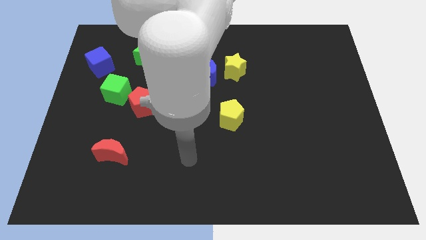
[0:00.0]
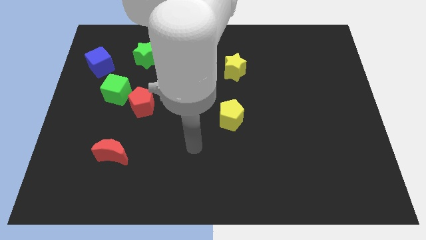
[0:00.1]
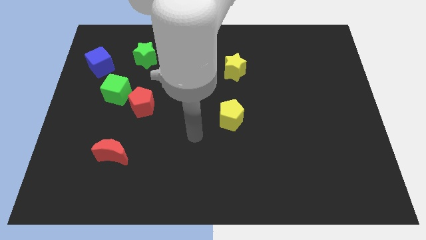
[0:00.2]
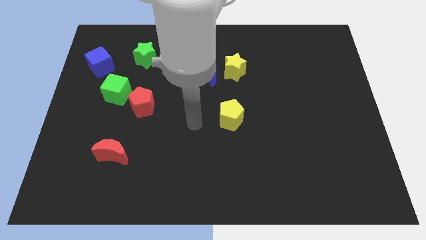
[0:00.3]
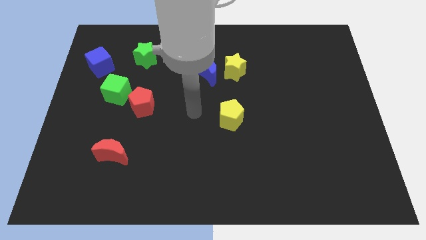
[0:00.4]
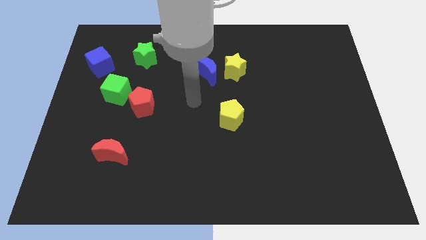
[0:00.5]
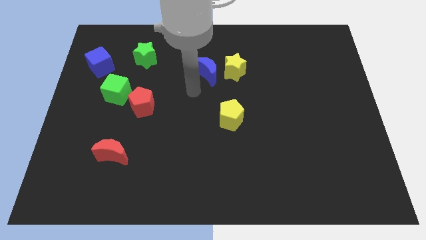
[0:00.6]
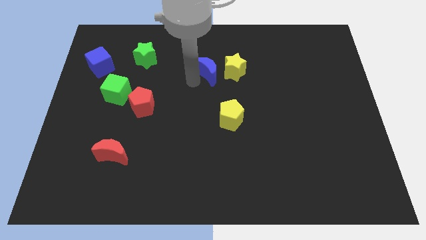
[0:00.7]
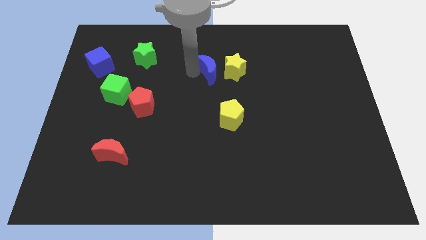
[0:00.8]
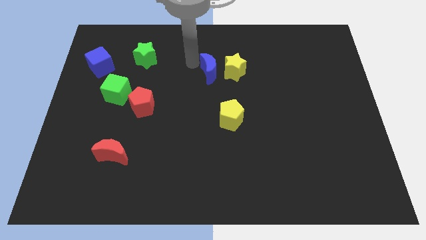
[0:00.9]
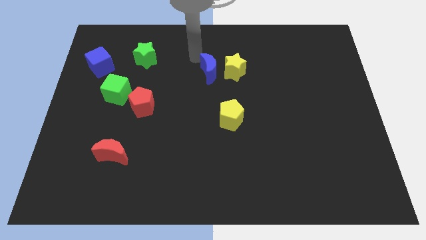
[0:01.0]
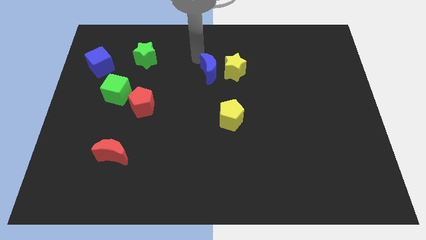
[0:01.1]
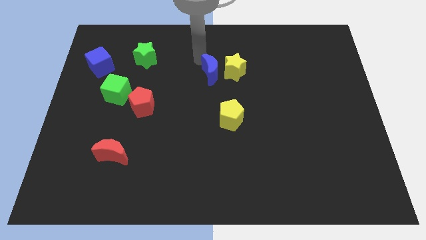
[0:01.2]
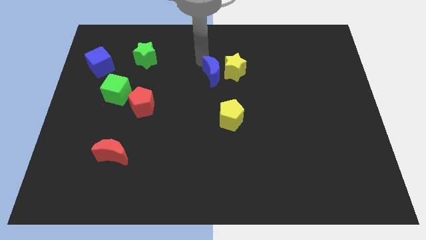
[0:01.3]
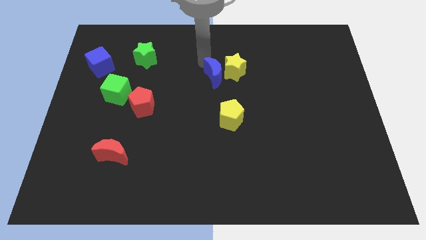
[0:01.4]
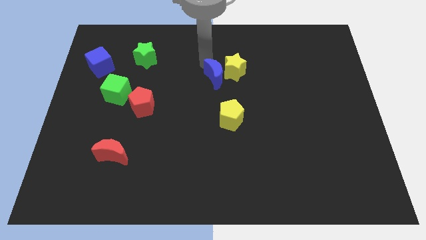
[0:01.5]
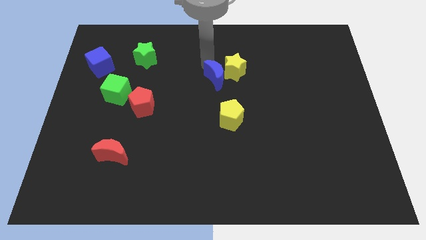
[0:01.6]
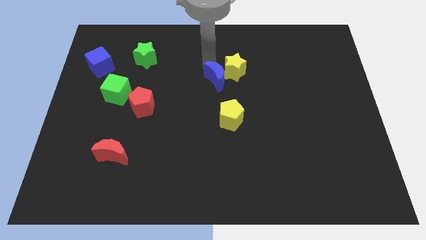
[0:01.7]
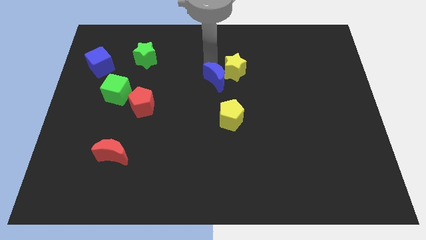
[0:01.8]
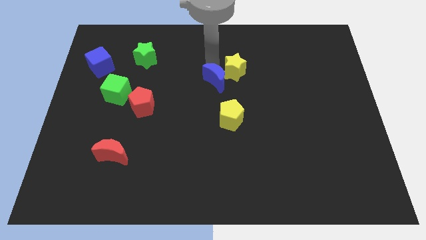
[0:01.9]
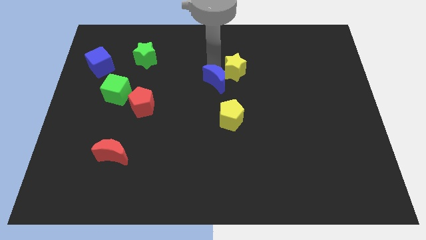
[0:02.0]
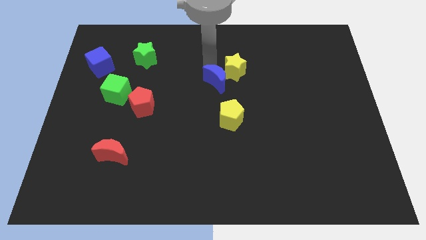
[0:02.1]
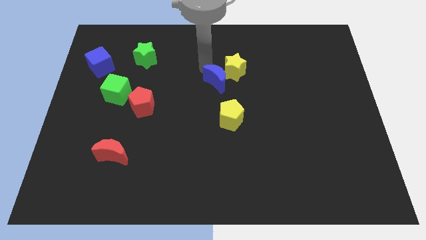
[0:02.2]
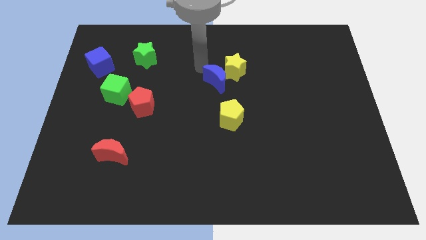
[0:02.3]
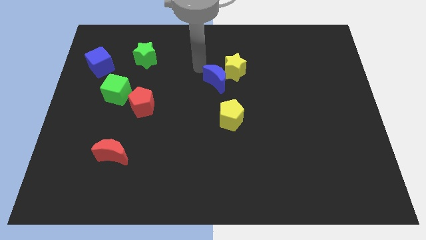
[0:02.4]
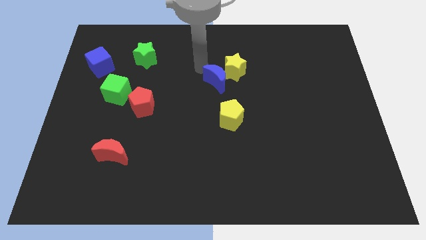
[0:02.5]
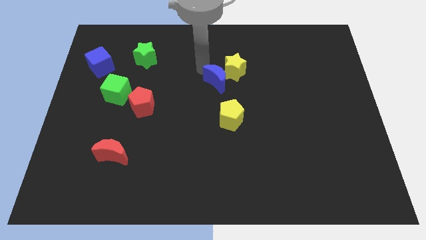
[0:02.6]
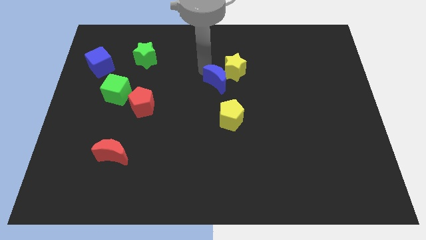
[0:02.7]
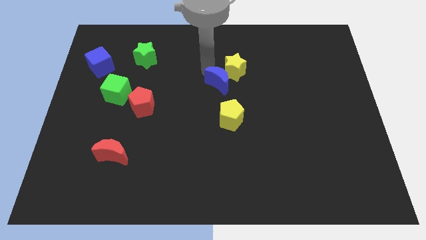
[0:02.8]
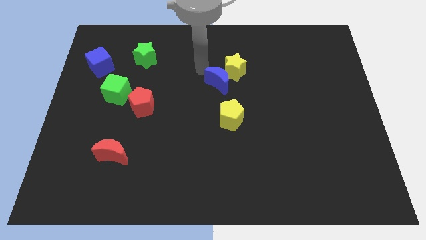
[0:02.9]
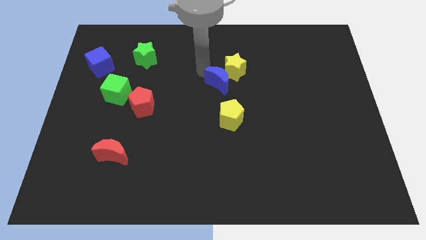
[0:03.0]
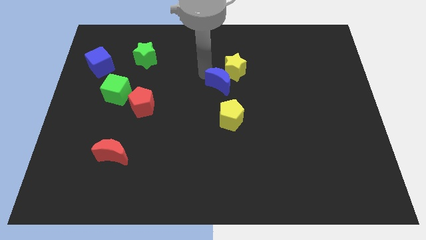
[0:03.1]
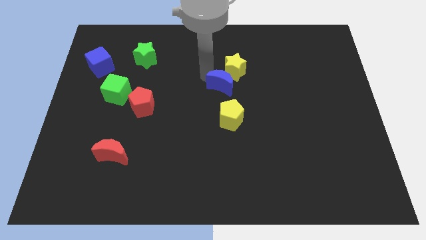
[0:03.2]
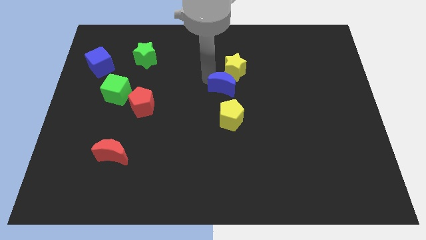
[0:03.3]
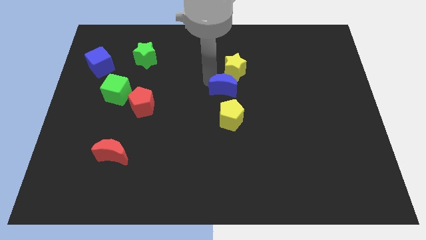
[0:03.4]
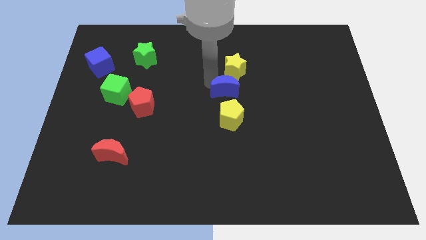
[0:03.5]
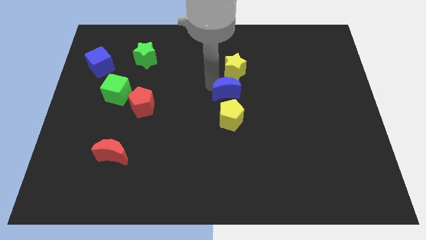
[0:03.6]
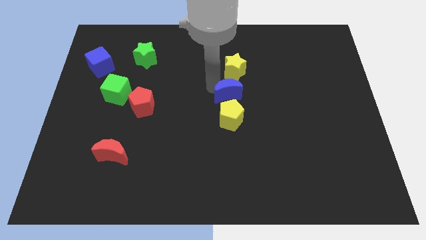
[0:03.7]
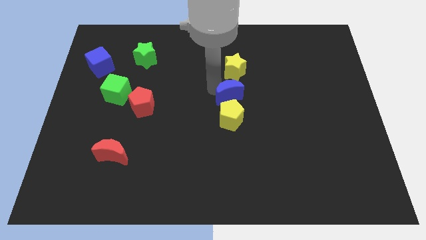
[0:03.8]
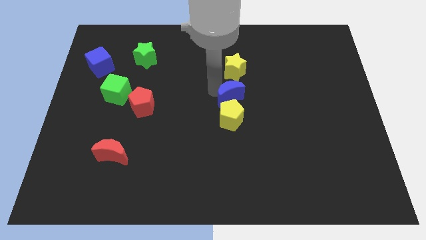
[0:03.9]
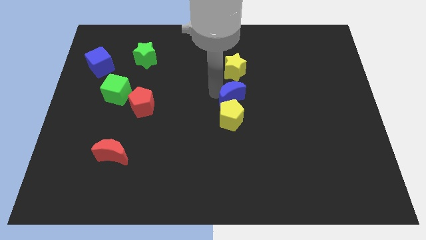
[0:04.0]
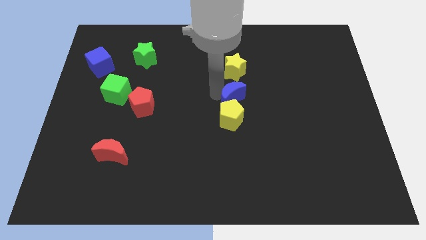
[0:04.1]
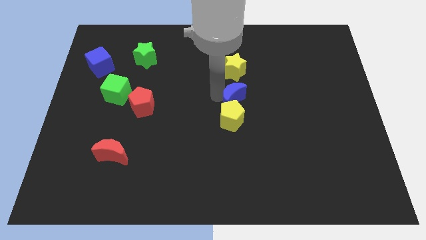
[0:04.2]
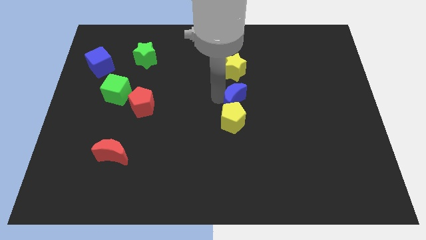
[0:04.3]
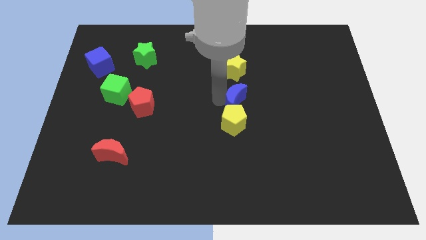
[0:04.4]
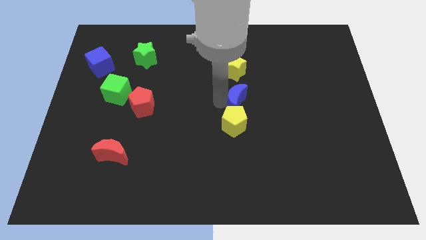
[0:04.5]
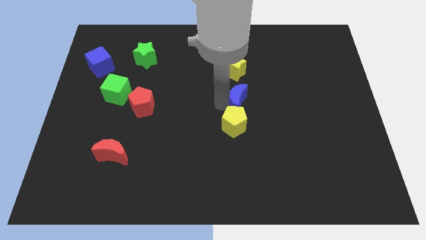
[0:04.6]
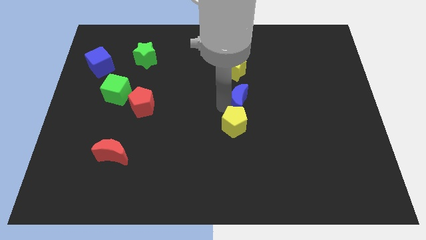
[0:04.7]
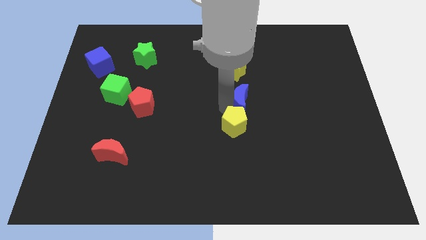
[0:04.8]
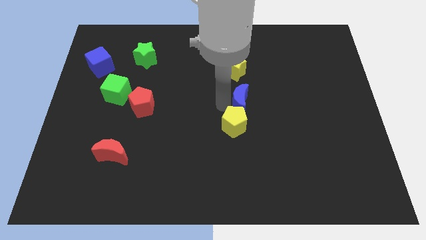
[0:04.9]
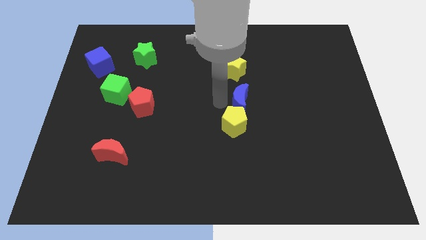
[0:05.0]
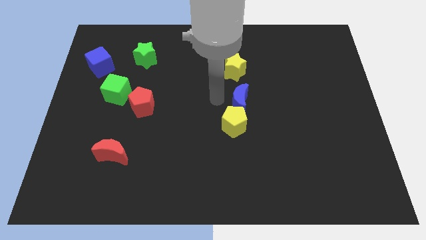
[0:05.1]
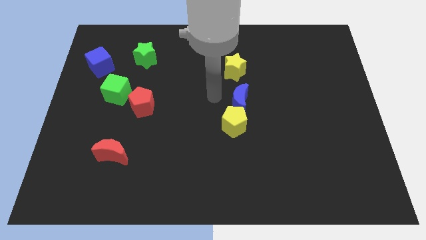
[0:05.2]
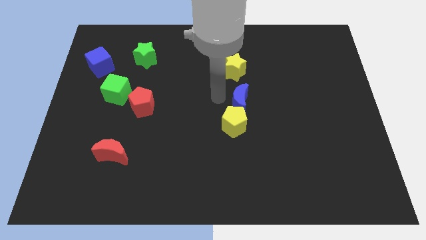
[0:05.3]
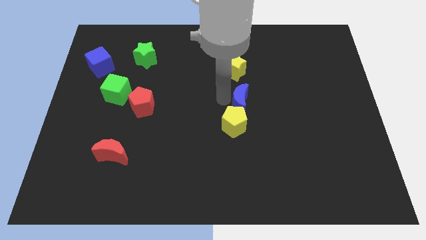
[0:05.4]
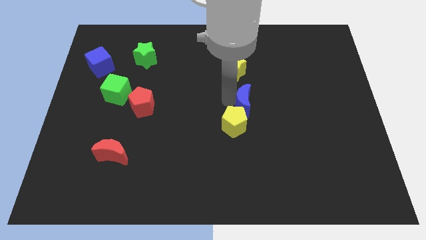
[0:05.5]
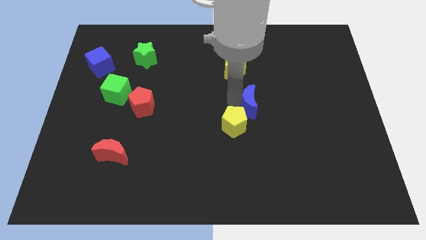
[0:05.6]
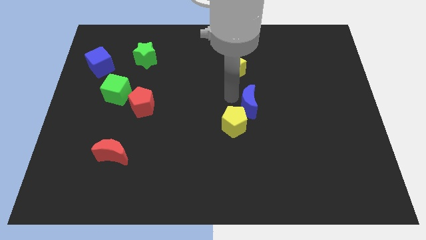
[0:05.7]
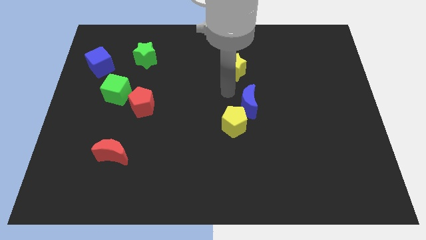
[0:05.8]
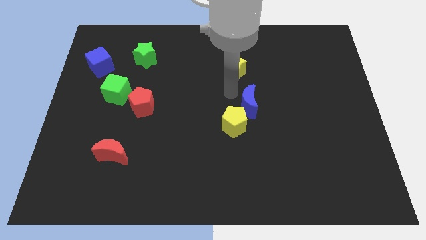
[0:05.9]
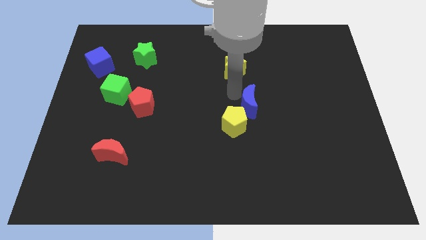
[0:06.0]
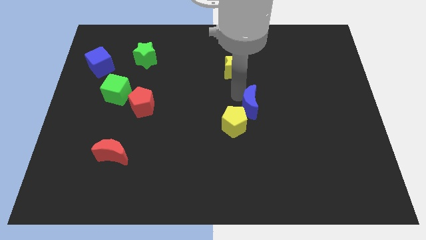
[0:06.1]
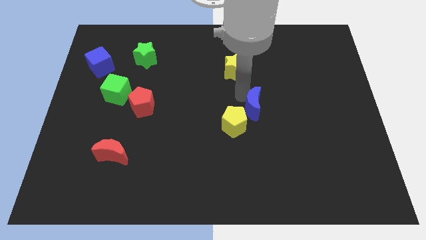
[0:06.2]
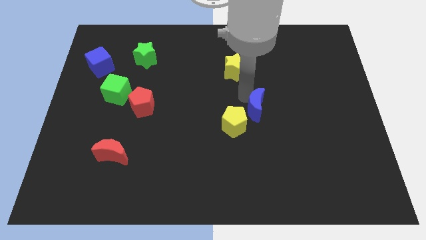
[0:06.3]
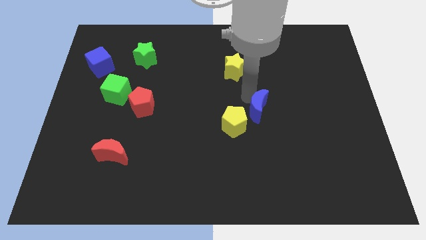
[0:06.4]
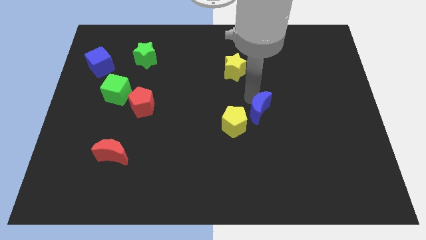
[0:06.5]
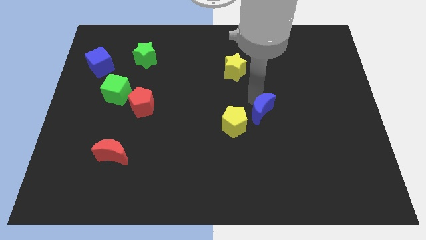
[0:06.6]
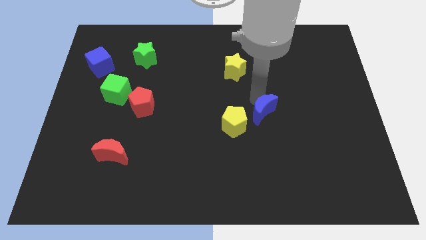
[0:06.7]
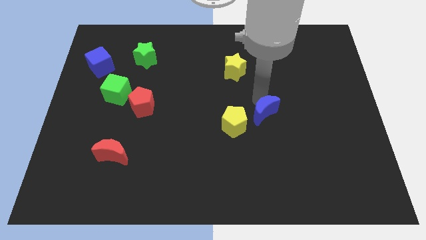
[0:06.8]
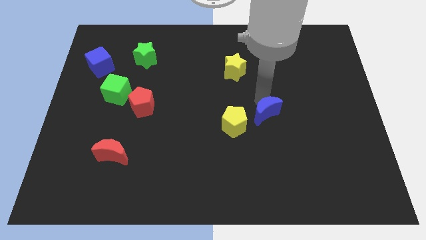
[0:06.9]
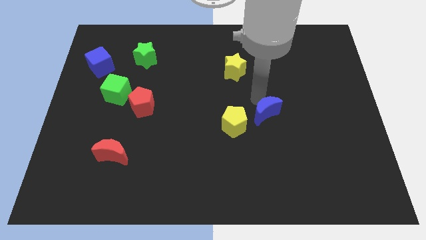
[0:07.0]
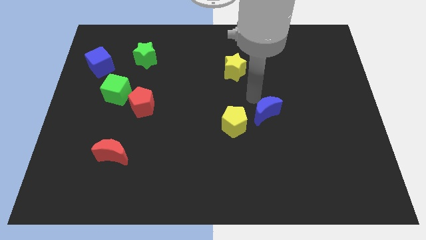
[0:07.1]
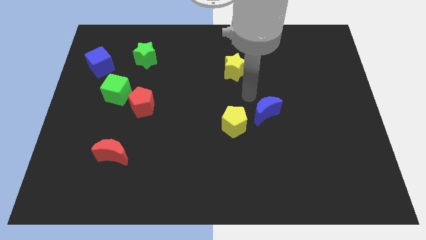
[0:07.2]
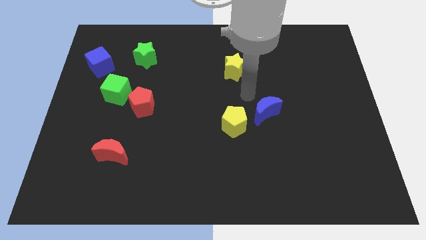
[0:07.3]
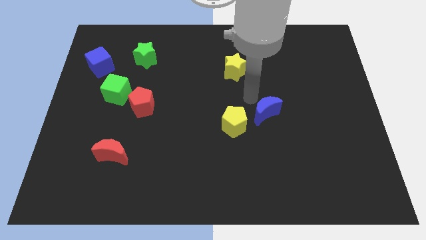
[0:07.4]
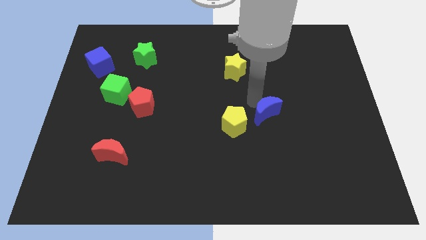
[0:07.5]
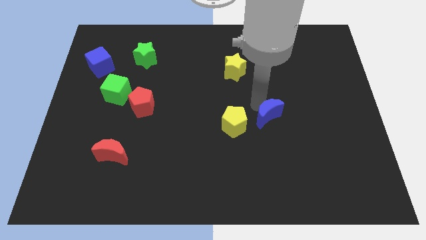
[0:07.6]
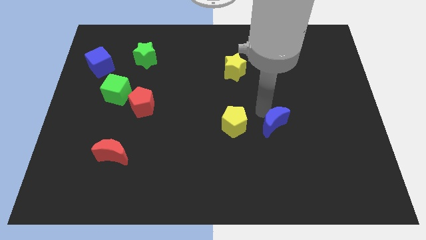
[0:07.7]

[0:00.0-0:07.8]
move the blue moon diagonally downwards and to the right

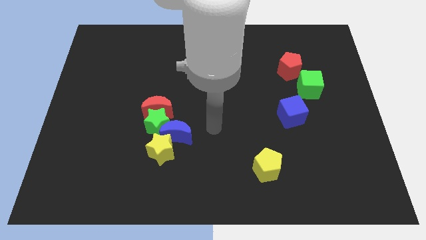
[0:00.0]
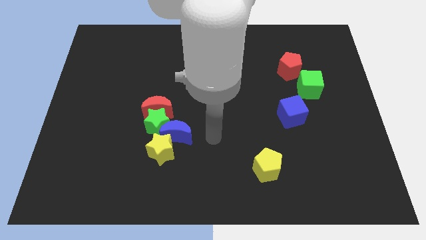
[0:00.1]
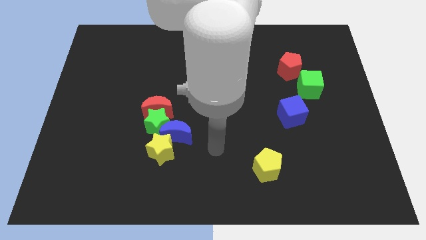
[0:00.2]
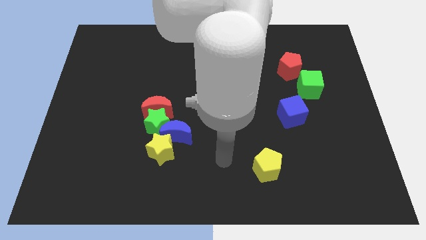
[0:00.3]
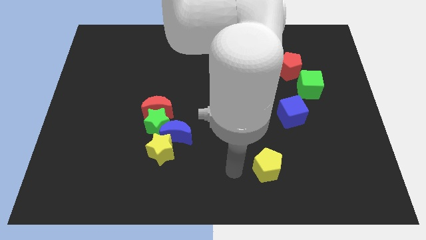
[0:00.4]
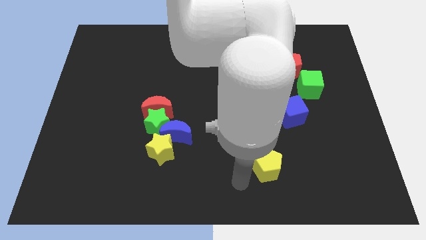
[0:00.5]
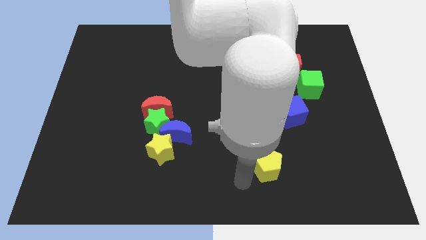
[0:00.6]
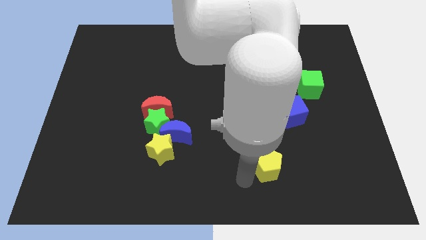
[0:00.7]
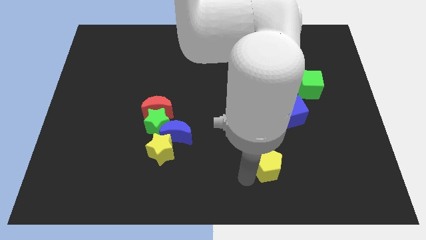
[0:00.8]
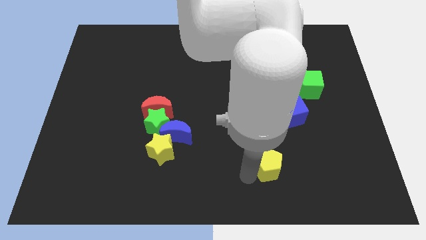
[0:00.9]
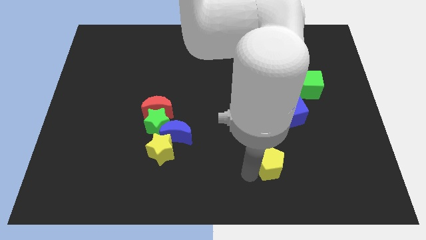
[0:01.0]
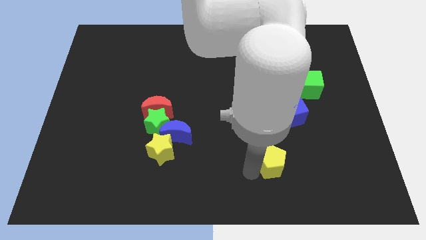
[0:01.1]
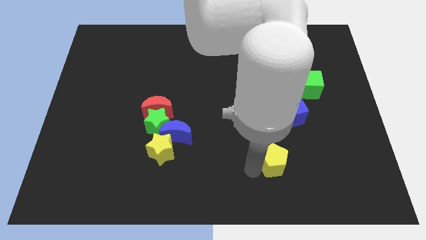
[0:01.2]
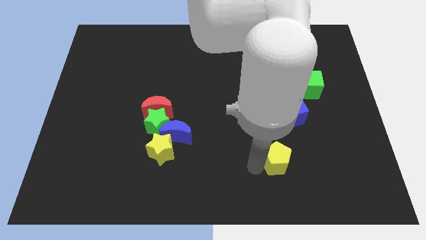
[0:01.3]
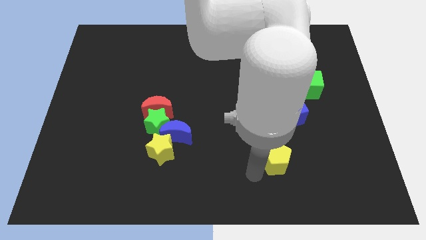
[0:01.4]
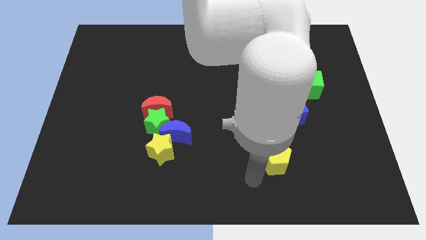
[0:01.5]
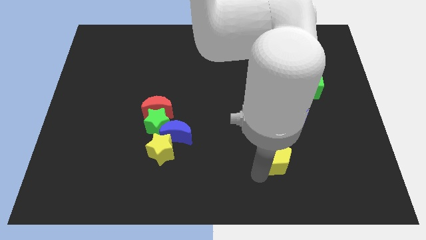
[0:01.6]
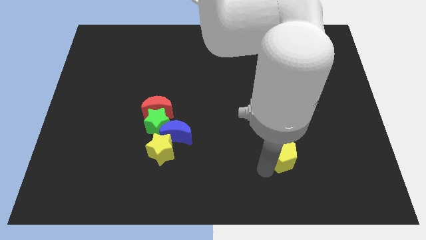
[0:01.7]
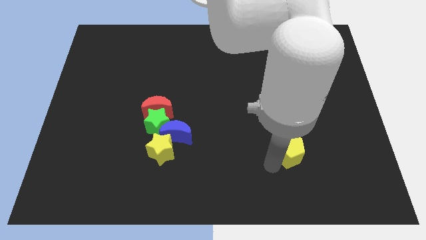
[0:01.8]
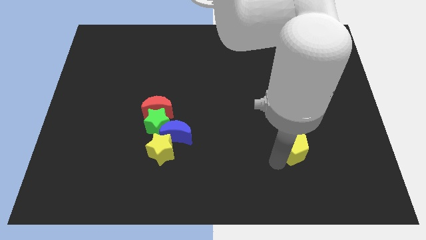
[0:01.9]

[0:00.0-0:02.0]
move the yellow pentagon slightly upwards and to the right diagonally
